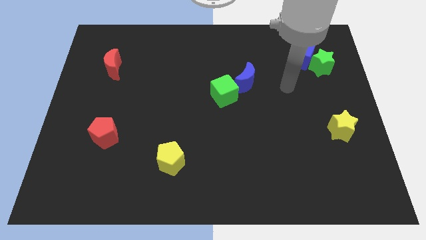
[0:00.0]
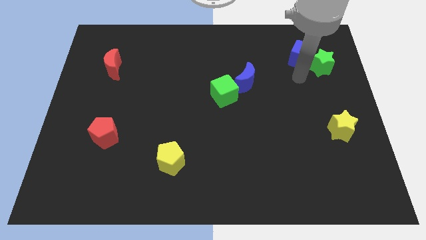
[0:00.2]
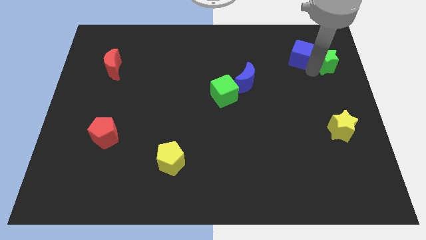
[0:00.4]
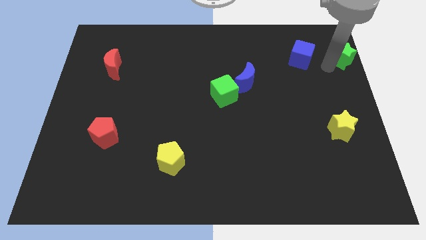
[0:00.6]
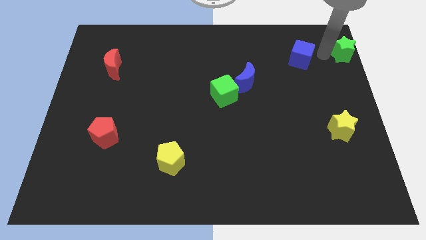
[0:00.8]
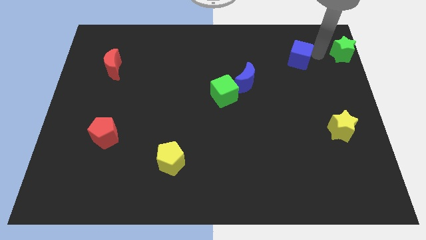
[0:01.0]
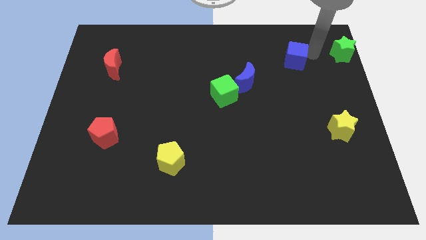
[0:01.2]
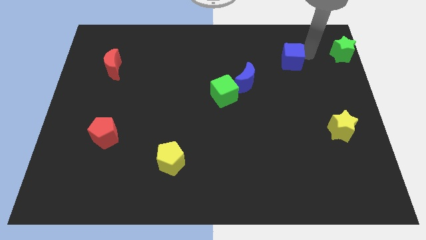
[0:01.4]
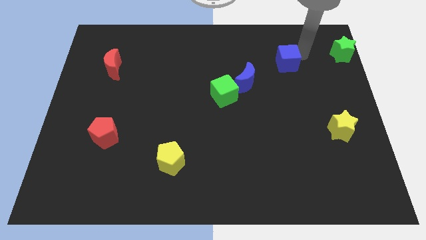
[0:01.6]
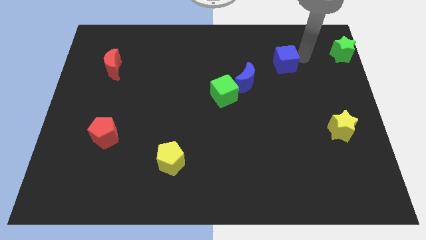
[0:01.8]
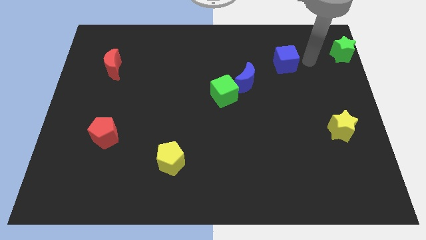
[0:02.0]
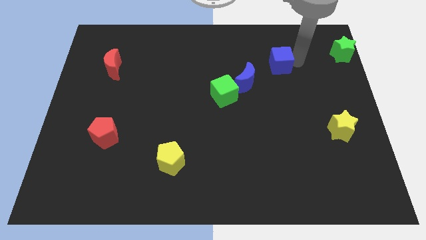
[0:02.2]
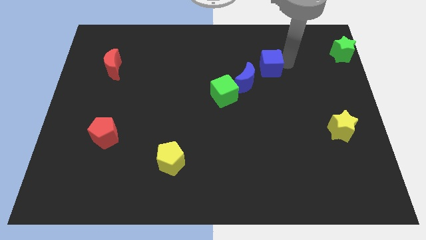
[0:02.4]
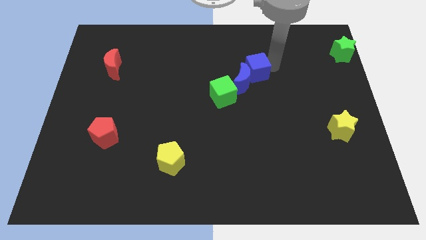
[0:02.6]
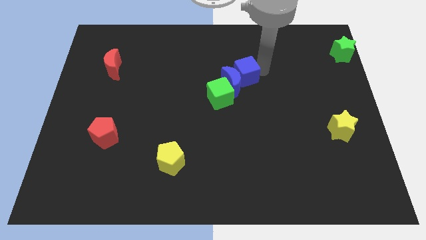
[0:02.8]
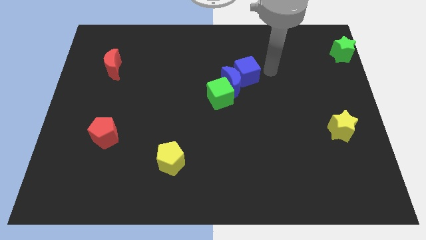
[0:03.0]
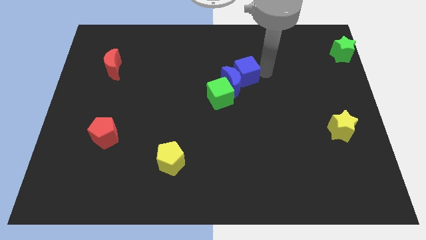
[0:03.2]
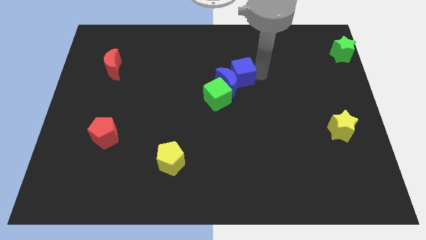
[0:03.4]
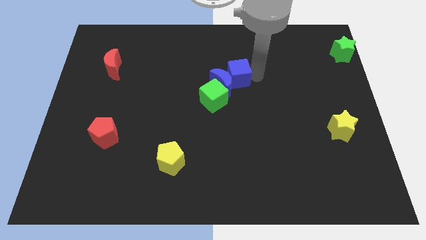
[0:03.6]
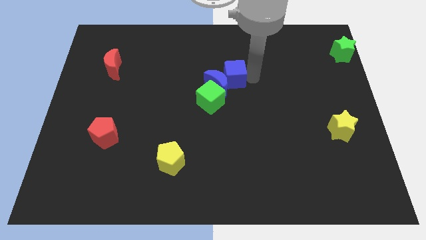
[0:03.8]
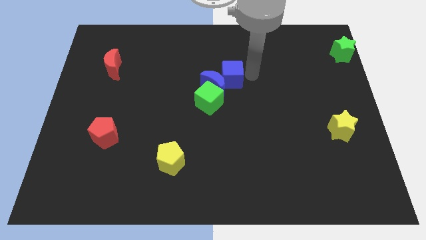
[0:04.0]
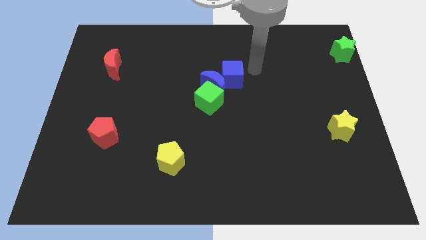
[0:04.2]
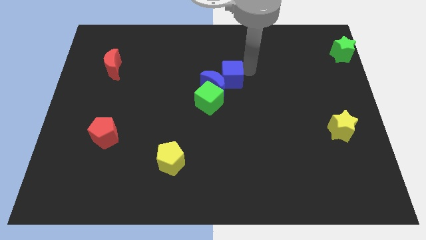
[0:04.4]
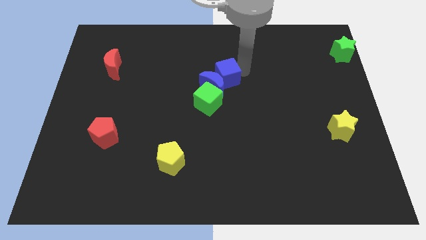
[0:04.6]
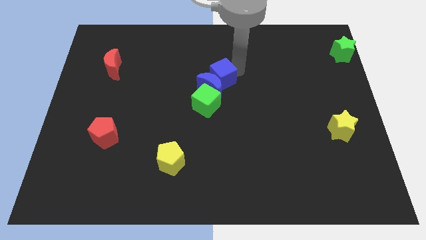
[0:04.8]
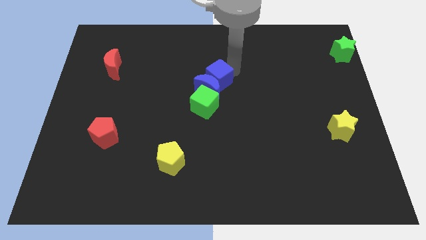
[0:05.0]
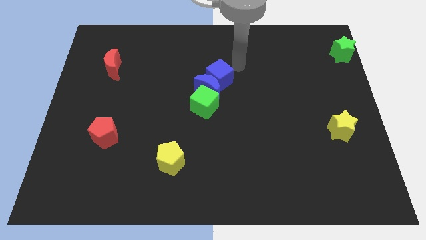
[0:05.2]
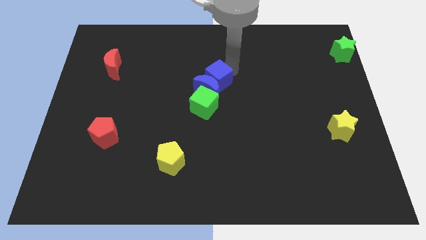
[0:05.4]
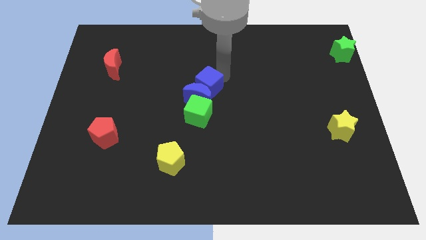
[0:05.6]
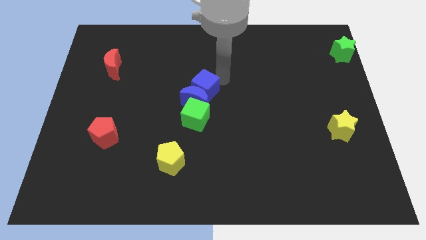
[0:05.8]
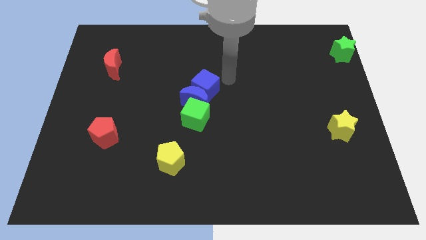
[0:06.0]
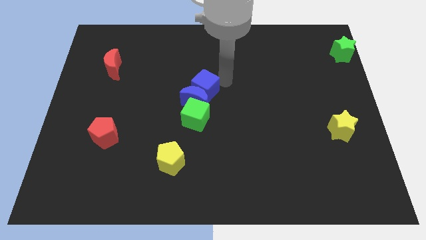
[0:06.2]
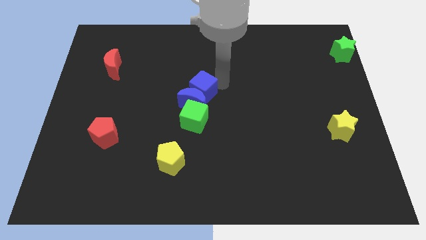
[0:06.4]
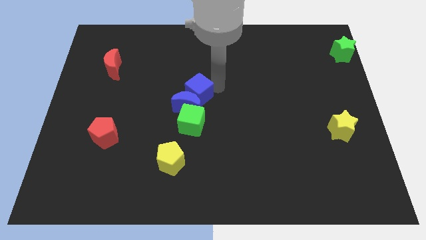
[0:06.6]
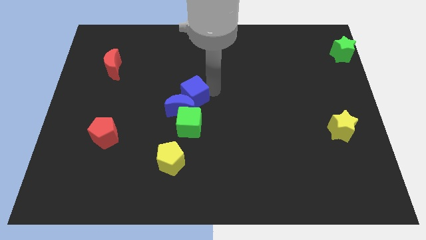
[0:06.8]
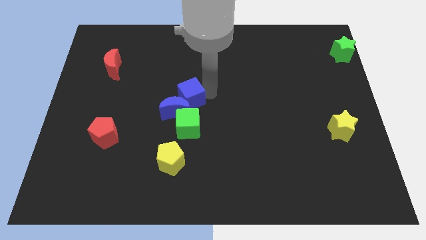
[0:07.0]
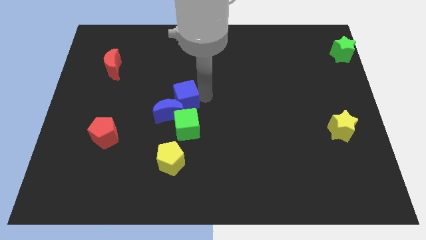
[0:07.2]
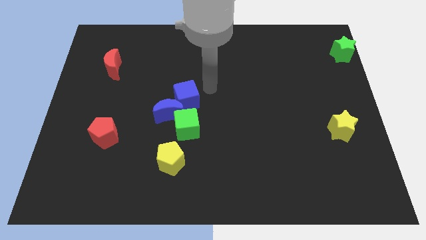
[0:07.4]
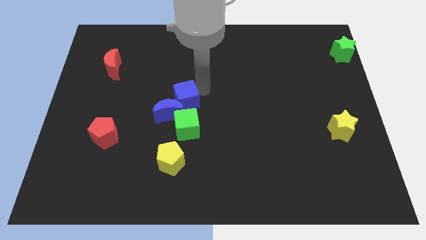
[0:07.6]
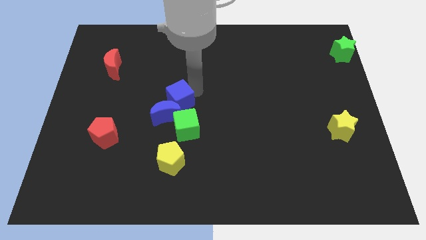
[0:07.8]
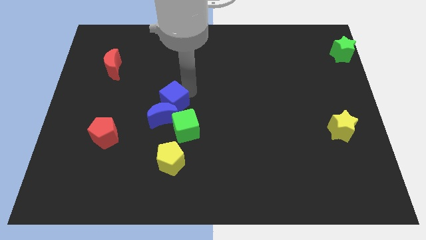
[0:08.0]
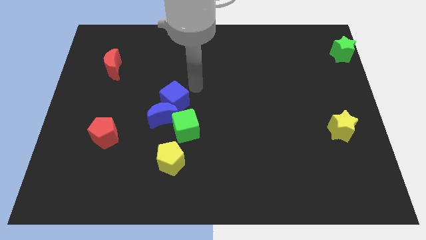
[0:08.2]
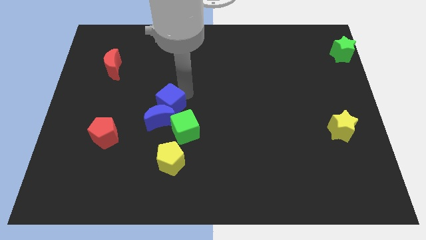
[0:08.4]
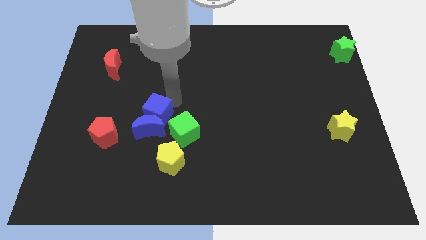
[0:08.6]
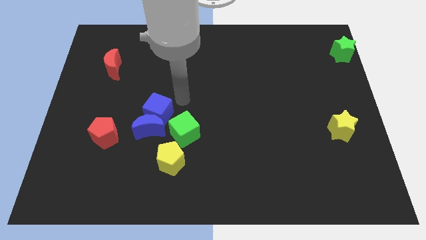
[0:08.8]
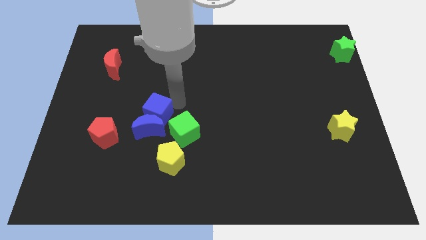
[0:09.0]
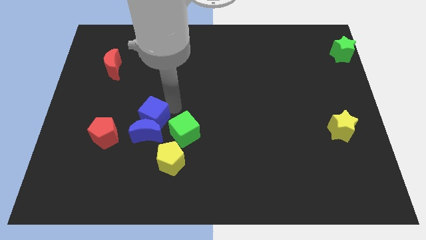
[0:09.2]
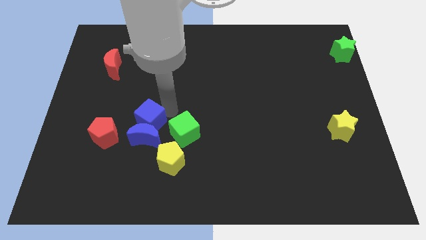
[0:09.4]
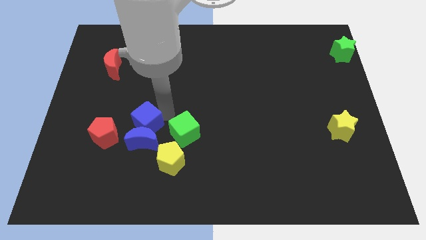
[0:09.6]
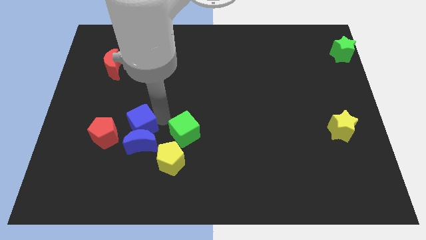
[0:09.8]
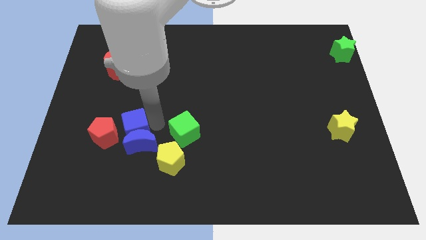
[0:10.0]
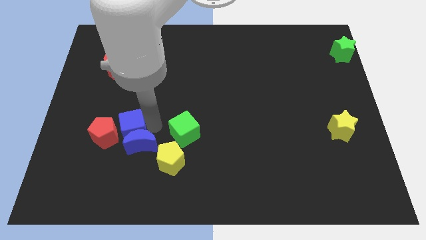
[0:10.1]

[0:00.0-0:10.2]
move the blue cube next to the red pentagon

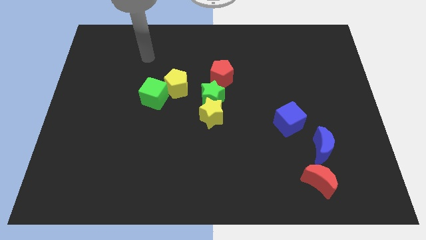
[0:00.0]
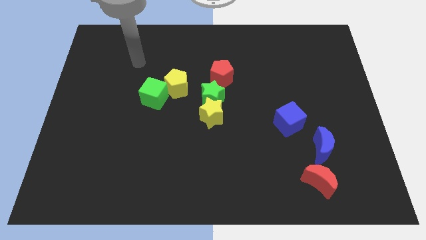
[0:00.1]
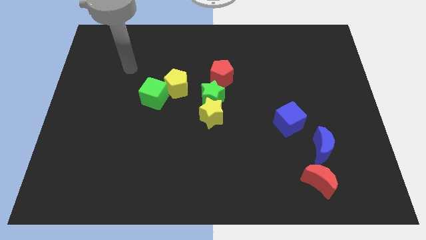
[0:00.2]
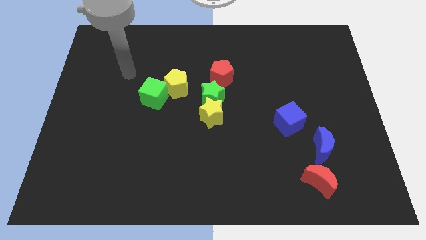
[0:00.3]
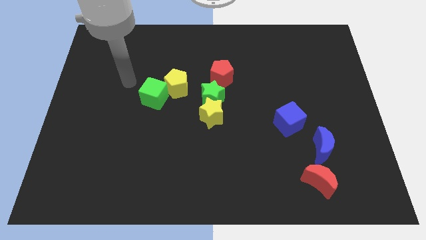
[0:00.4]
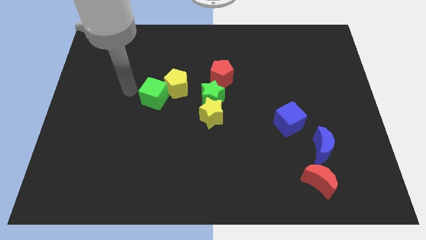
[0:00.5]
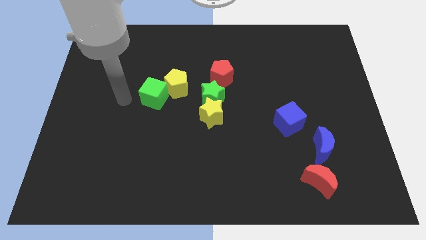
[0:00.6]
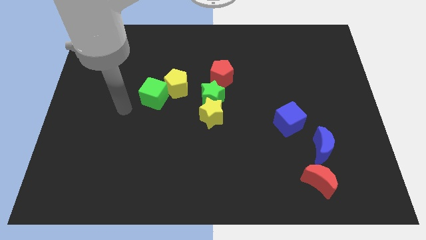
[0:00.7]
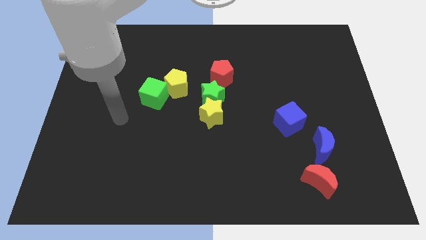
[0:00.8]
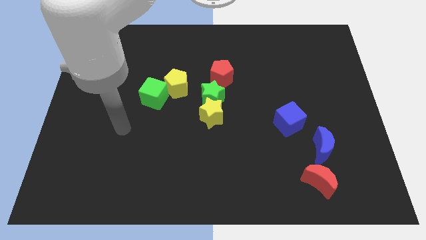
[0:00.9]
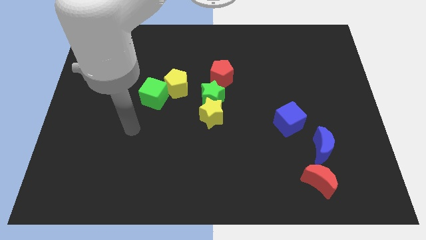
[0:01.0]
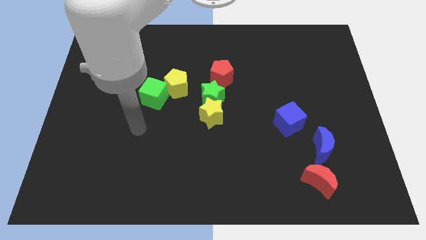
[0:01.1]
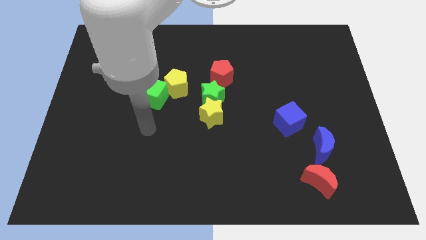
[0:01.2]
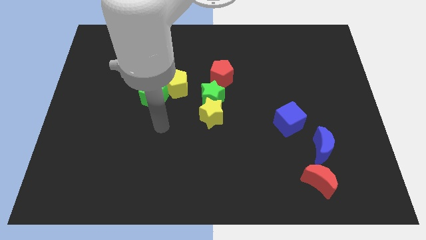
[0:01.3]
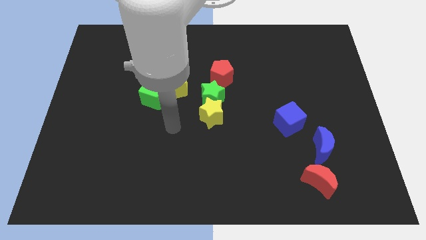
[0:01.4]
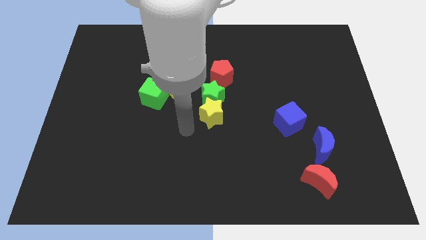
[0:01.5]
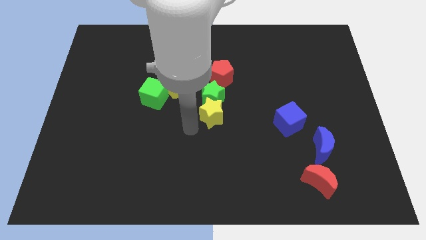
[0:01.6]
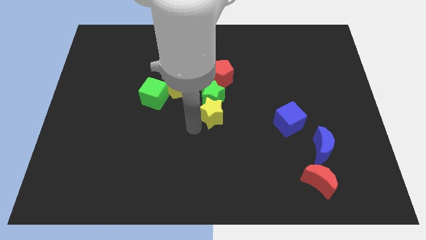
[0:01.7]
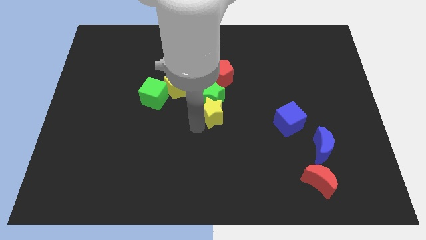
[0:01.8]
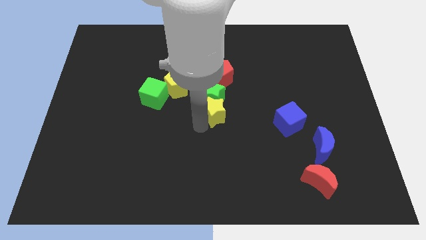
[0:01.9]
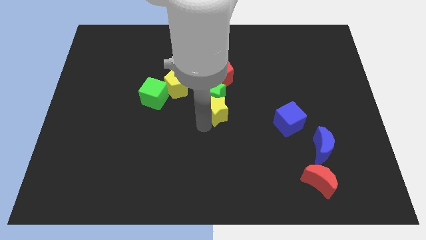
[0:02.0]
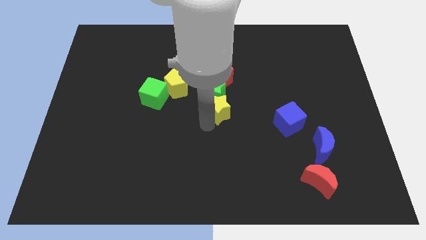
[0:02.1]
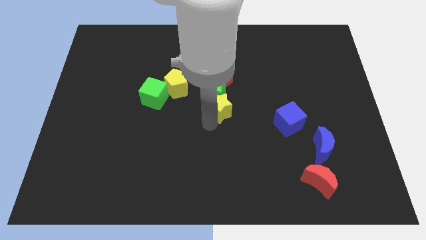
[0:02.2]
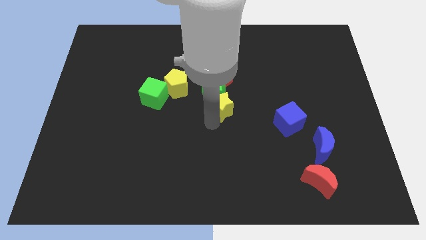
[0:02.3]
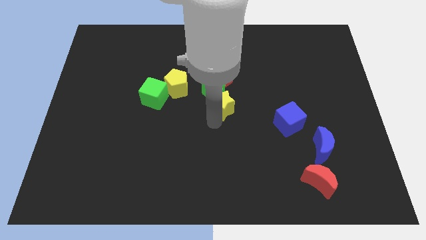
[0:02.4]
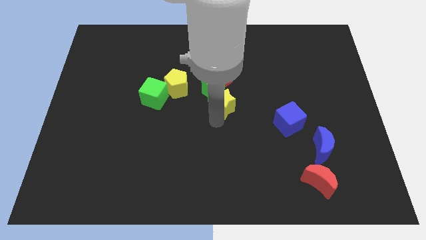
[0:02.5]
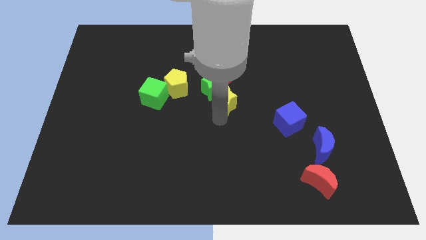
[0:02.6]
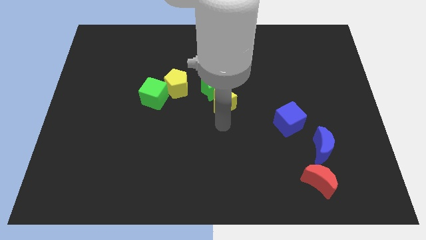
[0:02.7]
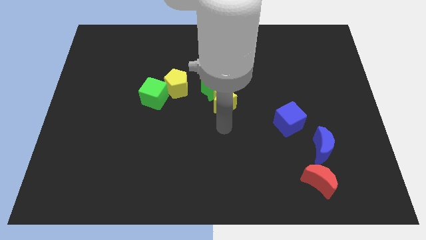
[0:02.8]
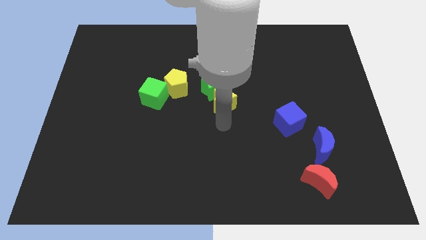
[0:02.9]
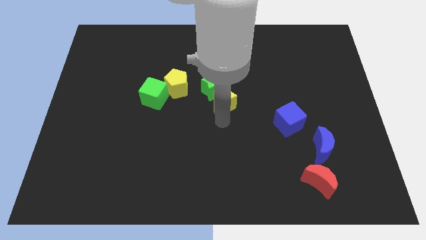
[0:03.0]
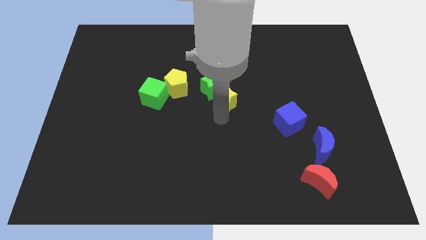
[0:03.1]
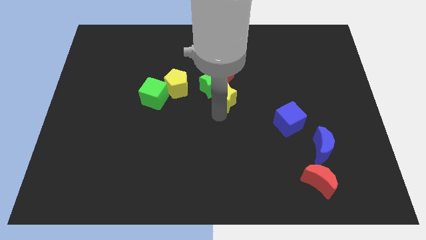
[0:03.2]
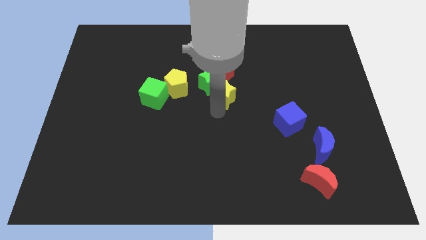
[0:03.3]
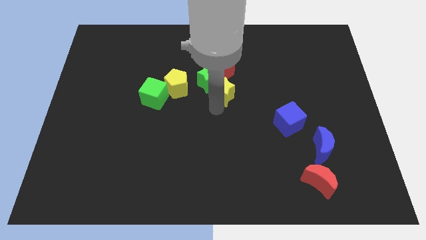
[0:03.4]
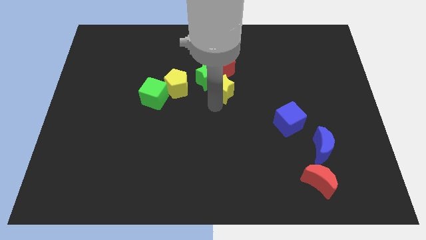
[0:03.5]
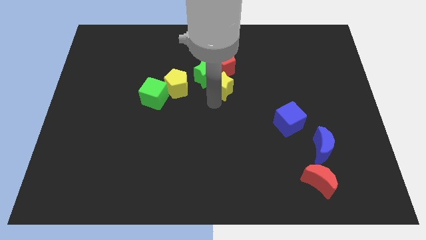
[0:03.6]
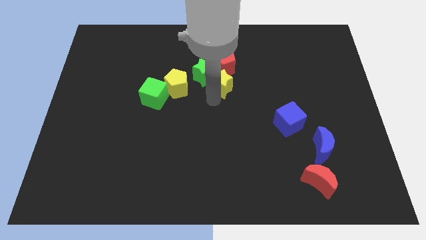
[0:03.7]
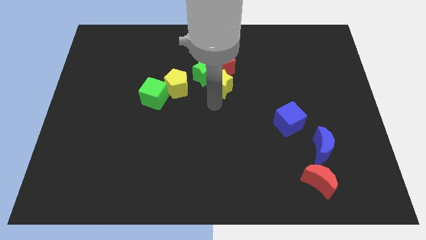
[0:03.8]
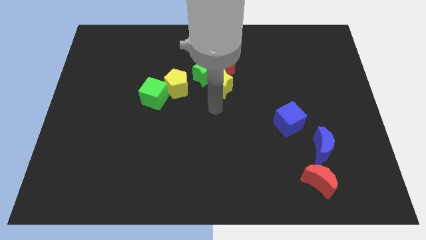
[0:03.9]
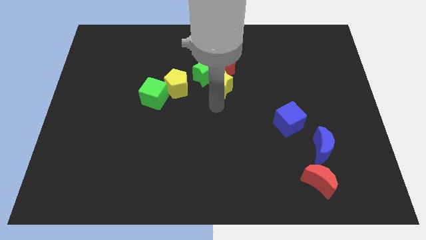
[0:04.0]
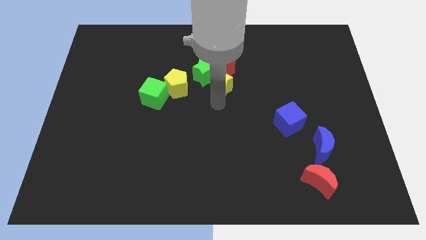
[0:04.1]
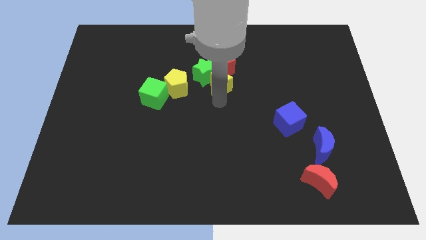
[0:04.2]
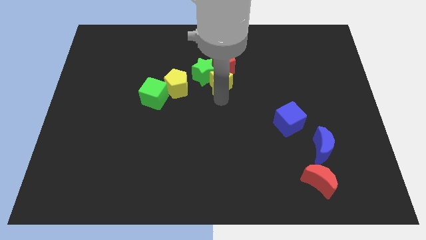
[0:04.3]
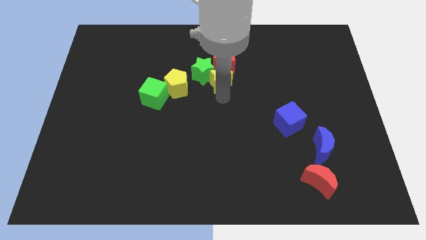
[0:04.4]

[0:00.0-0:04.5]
push the yellow star close to the red pentagon
